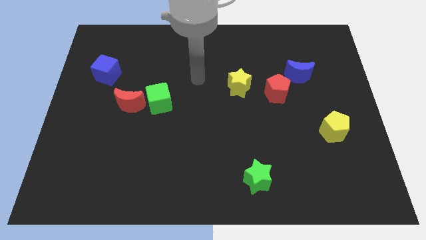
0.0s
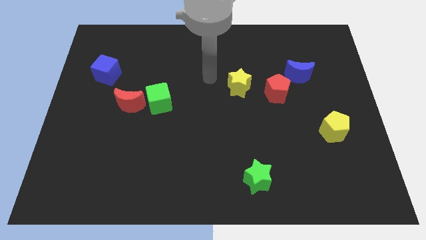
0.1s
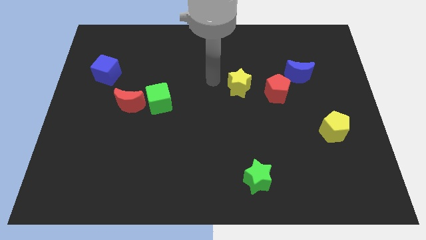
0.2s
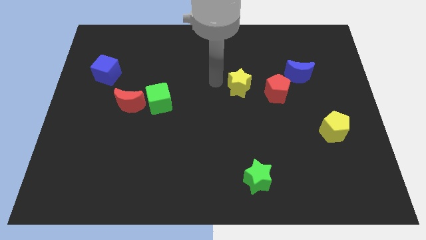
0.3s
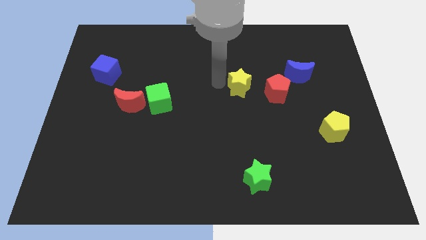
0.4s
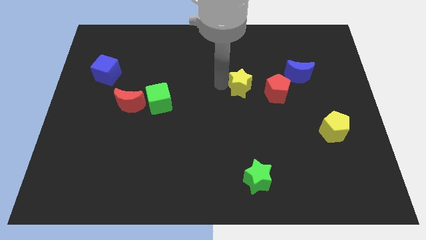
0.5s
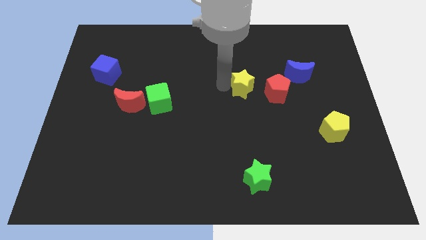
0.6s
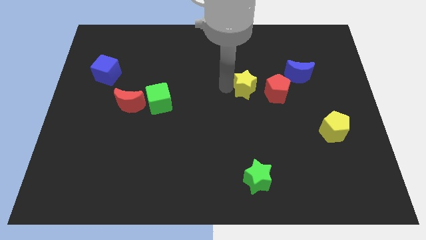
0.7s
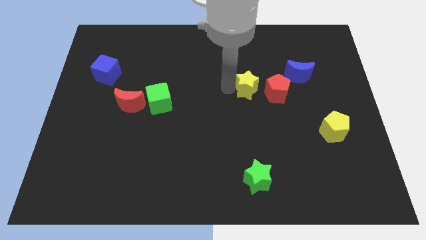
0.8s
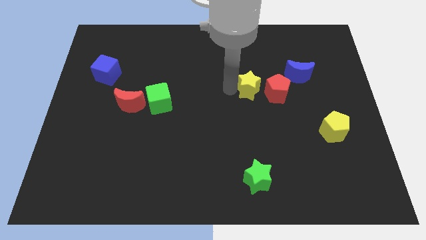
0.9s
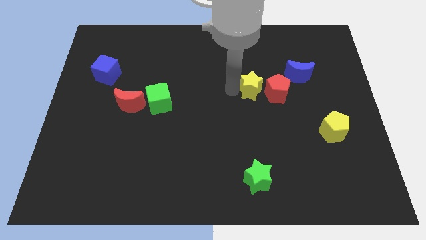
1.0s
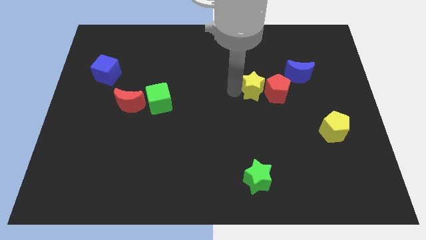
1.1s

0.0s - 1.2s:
slide the yellow star close to the red pentagon

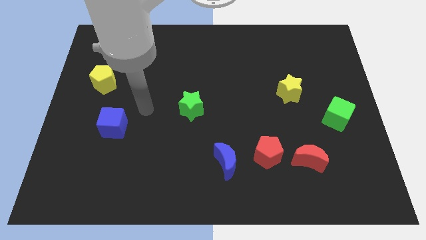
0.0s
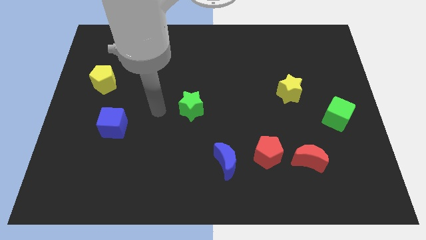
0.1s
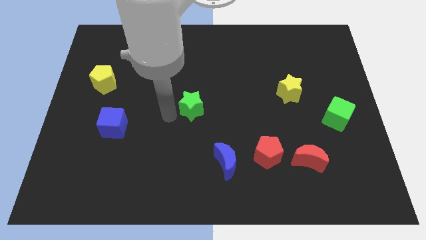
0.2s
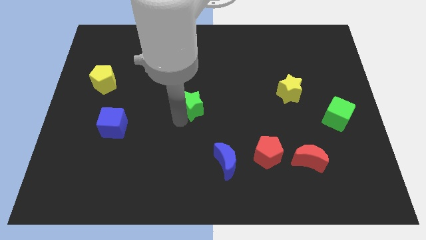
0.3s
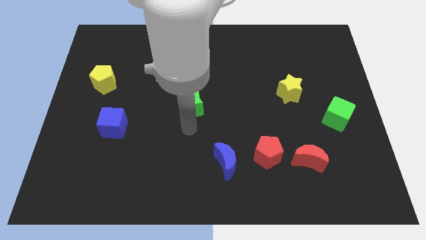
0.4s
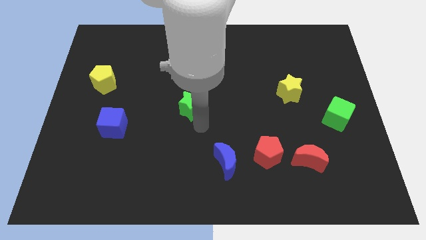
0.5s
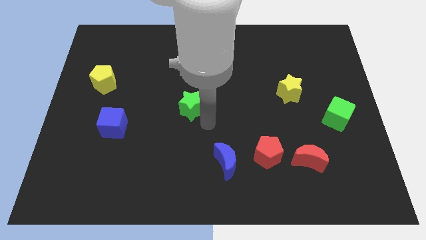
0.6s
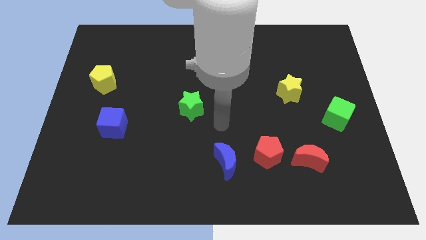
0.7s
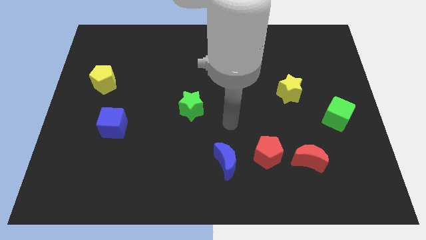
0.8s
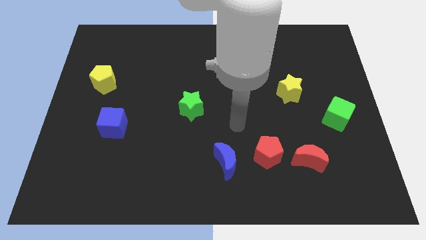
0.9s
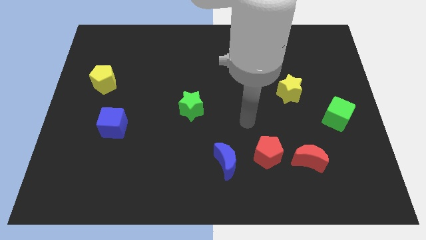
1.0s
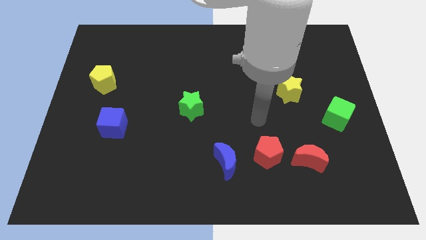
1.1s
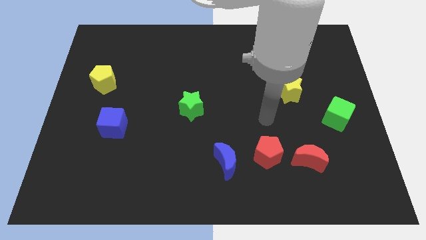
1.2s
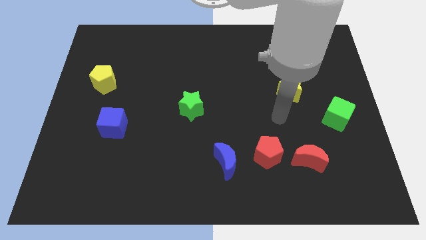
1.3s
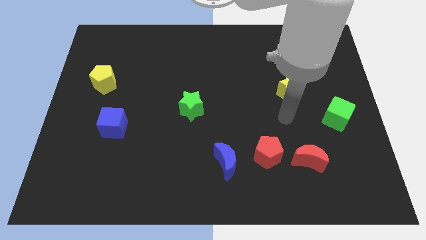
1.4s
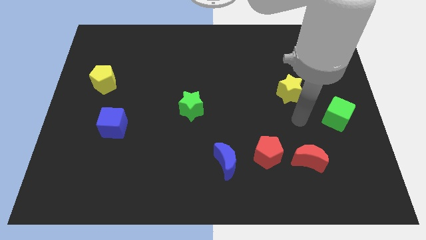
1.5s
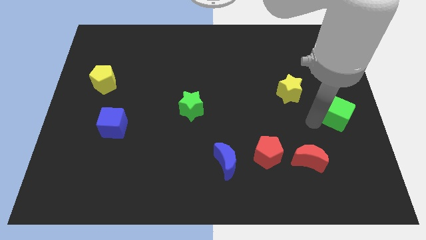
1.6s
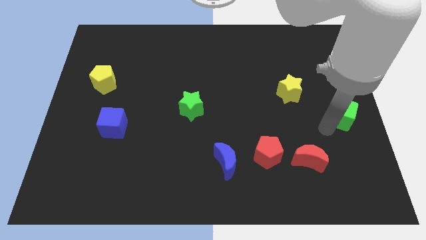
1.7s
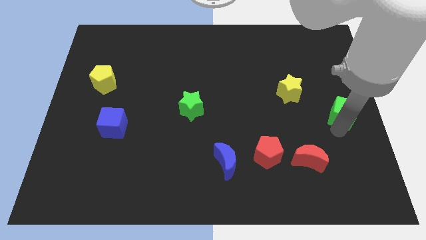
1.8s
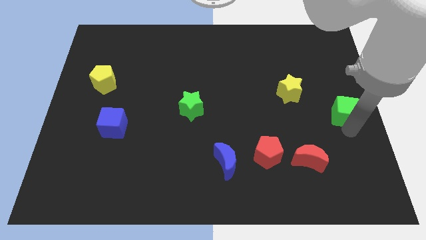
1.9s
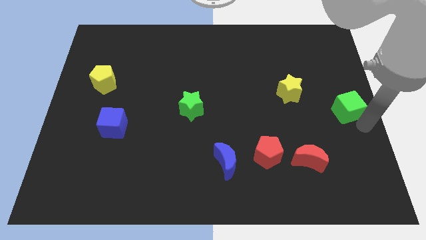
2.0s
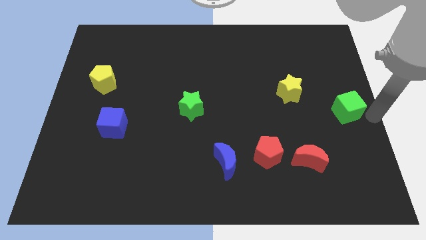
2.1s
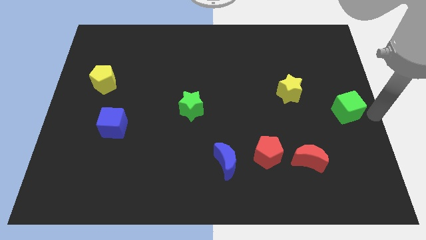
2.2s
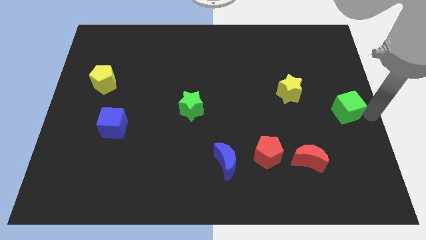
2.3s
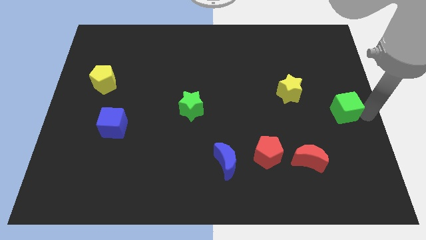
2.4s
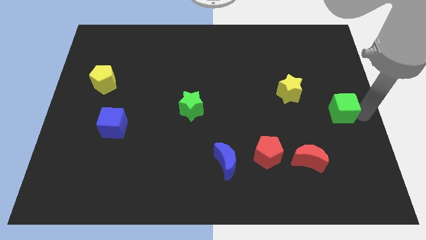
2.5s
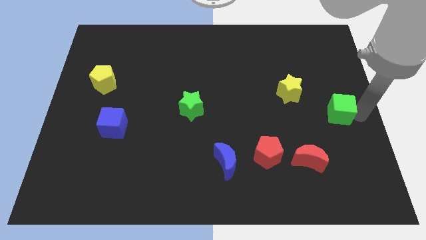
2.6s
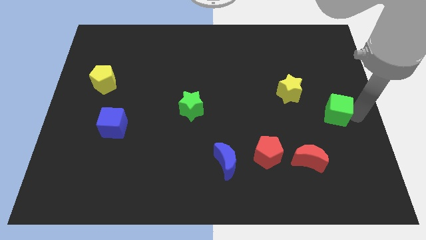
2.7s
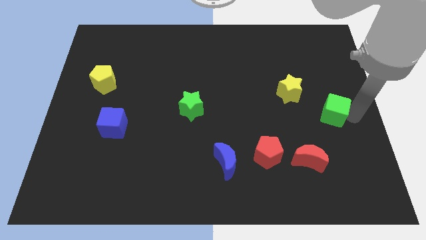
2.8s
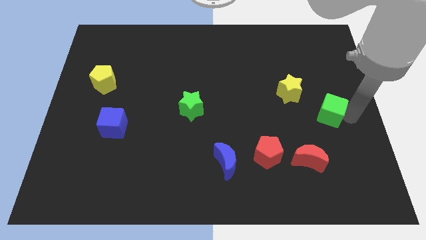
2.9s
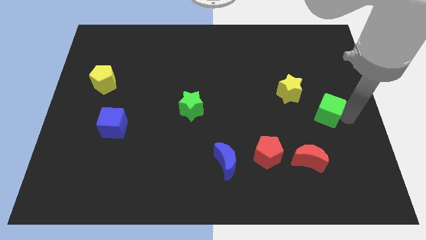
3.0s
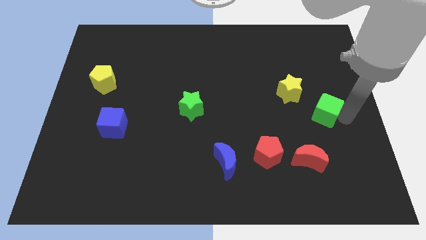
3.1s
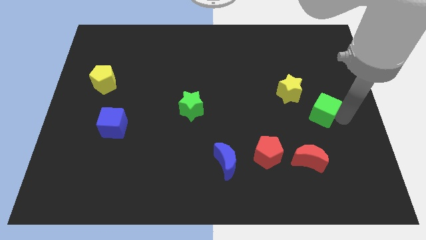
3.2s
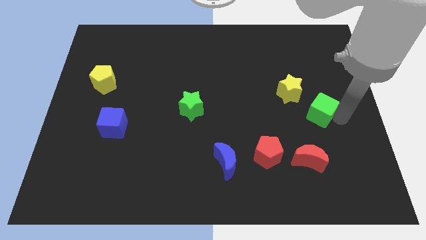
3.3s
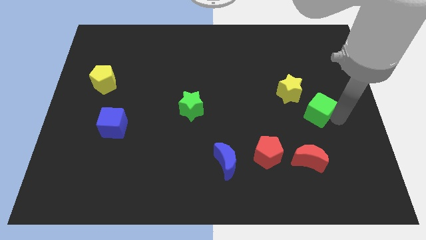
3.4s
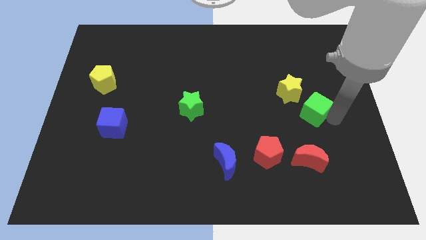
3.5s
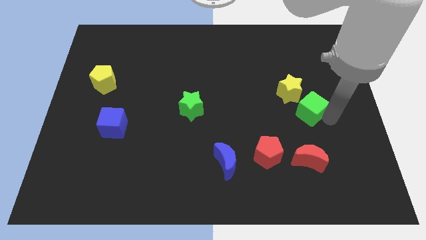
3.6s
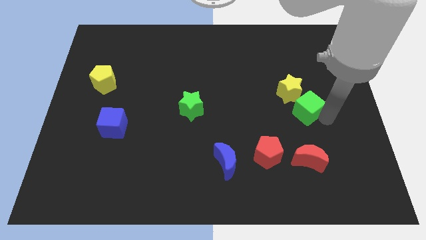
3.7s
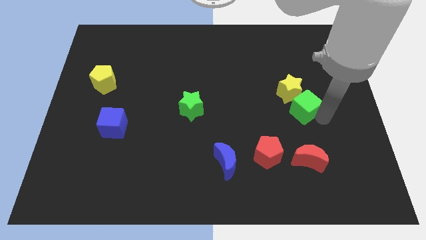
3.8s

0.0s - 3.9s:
move the green cube close to the yellow star

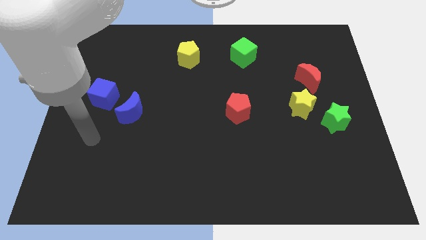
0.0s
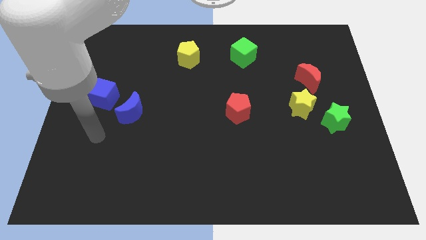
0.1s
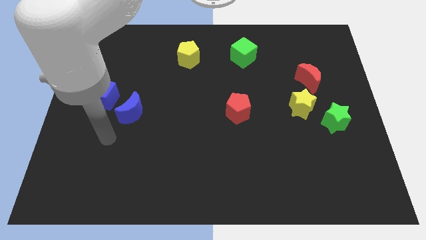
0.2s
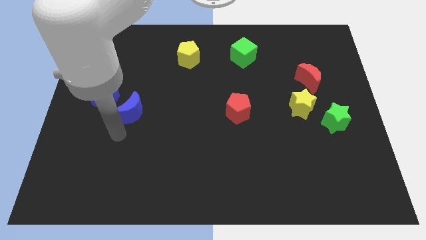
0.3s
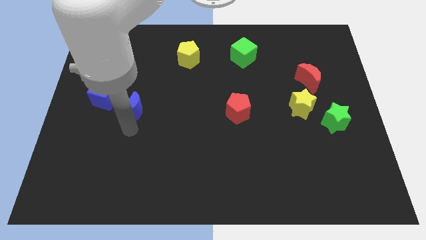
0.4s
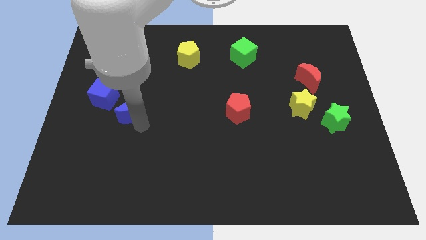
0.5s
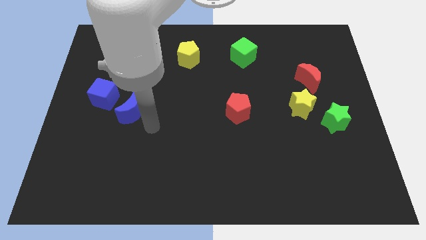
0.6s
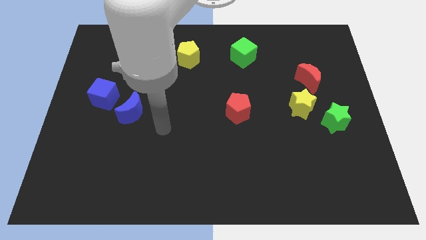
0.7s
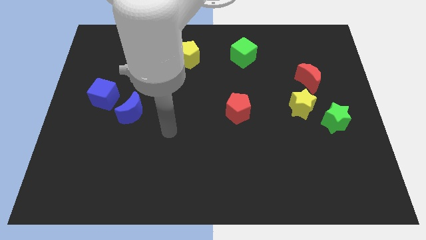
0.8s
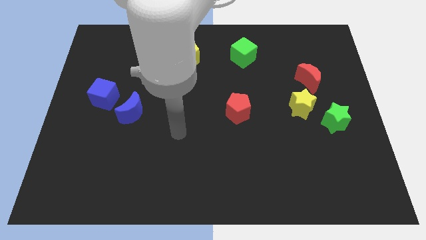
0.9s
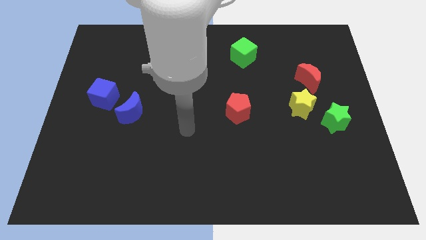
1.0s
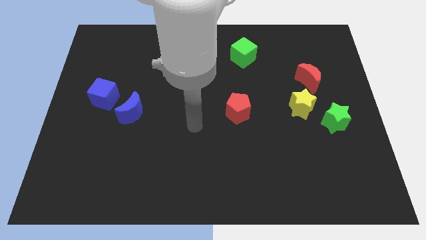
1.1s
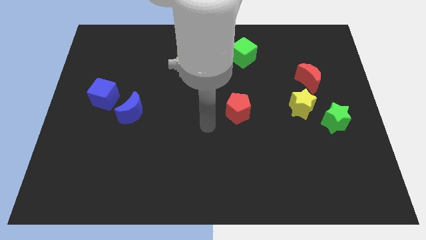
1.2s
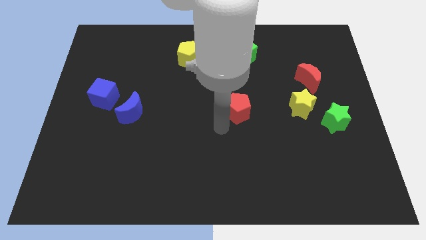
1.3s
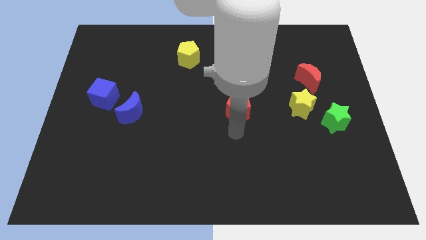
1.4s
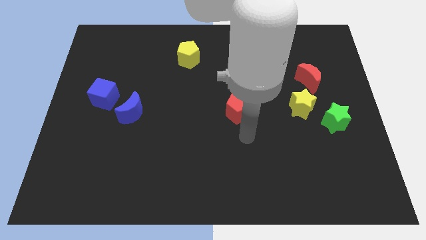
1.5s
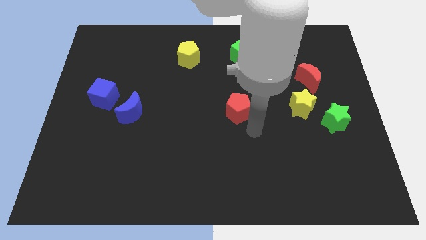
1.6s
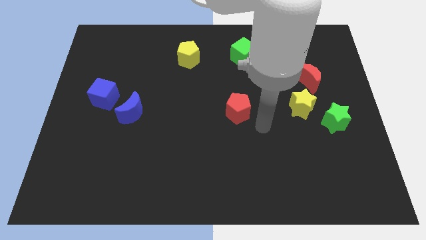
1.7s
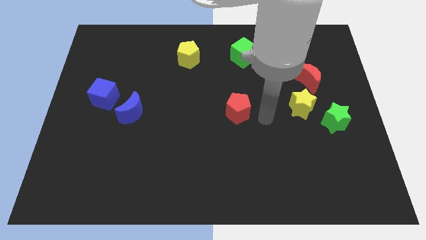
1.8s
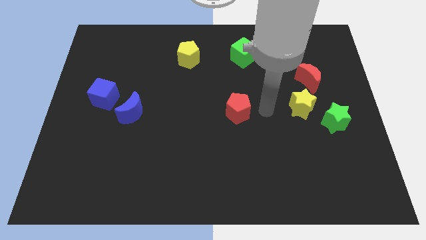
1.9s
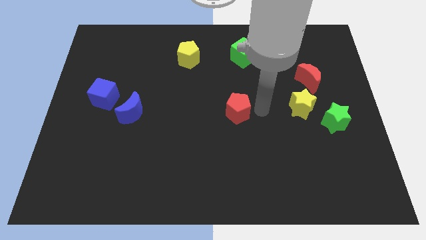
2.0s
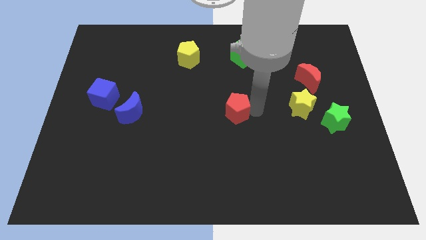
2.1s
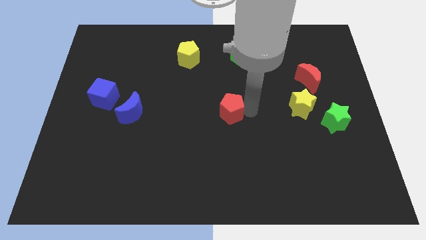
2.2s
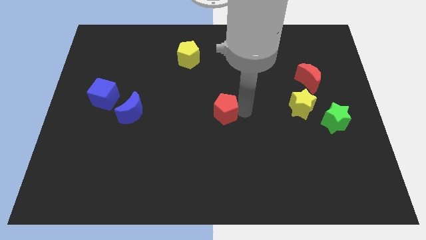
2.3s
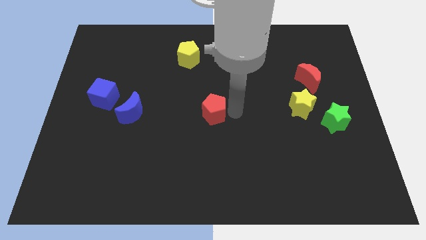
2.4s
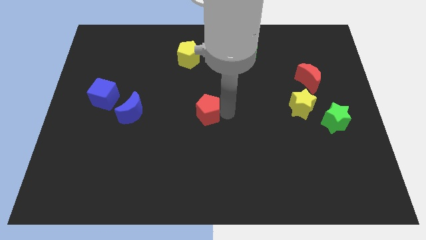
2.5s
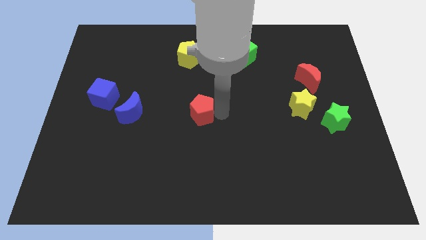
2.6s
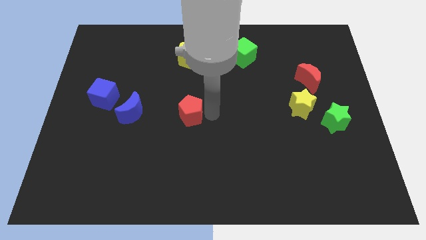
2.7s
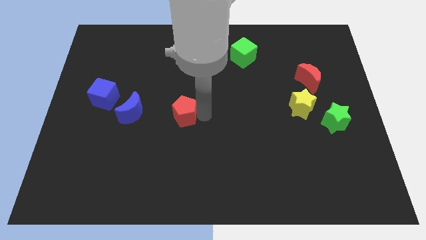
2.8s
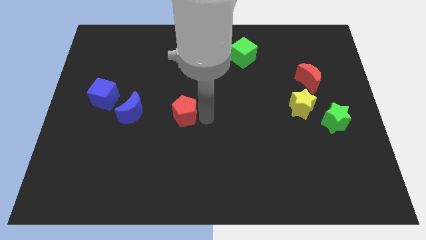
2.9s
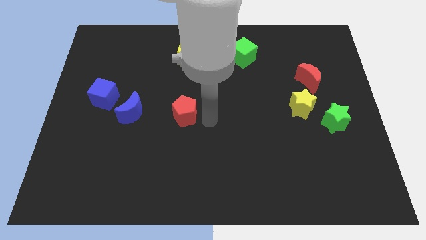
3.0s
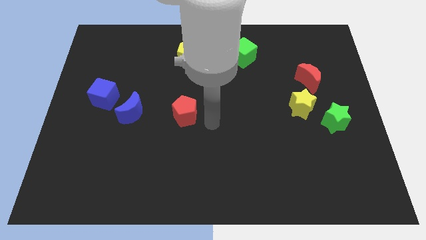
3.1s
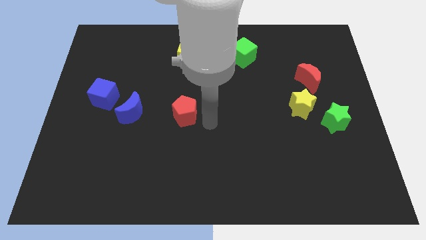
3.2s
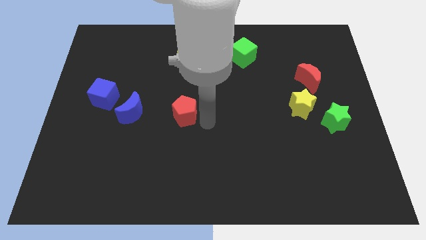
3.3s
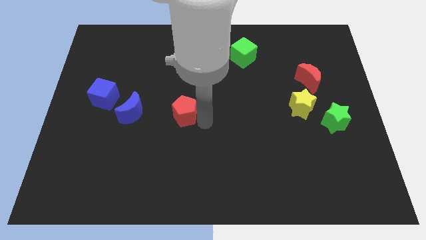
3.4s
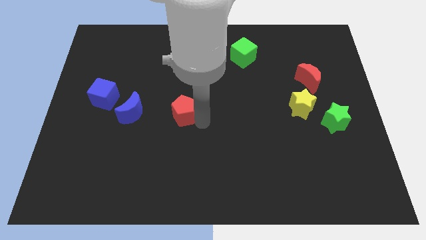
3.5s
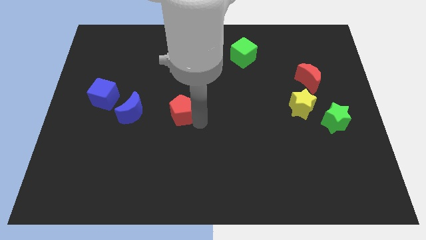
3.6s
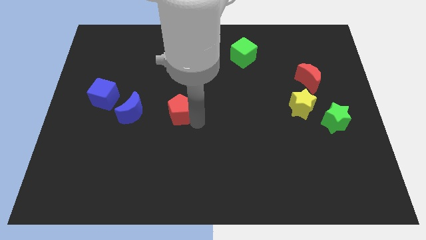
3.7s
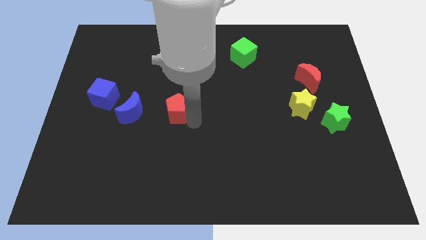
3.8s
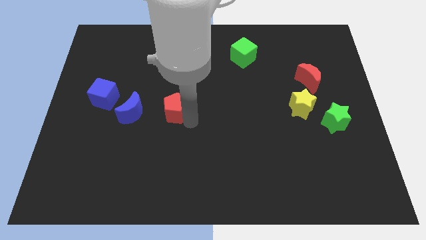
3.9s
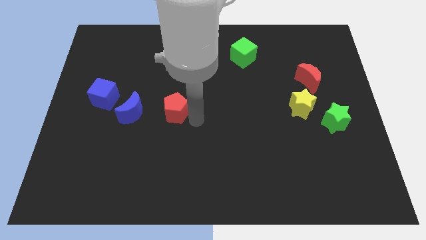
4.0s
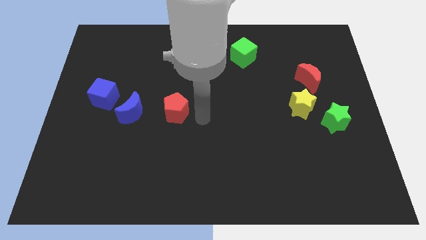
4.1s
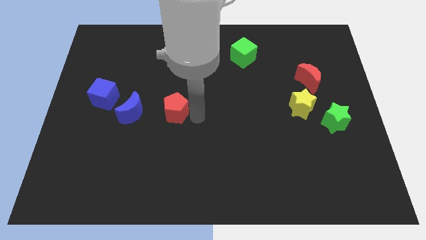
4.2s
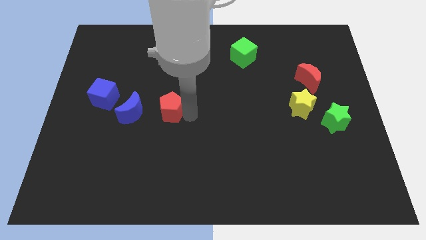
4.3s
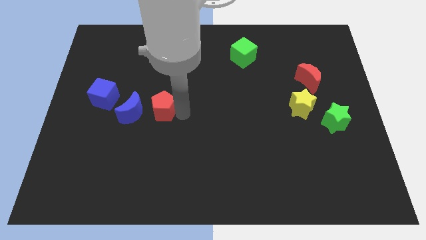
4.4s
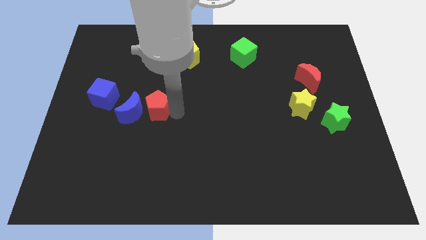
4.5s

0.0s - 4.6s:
slide the red pentagon towards the blue moon
